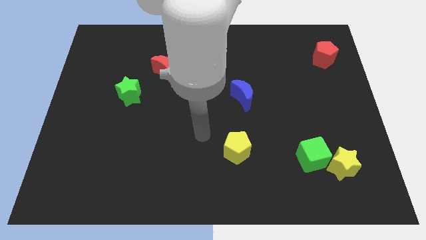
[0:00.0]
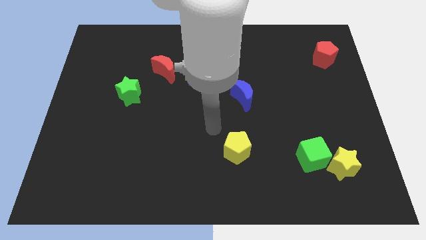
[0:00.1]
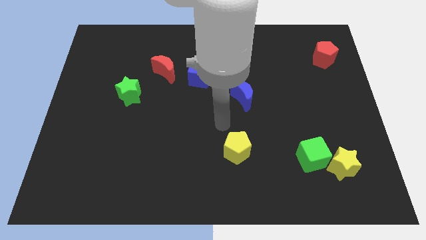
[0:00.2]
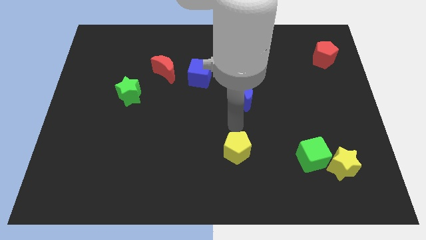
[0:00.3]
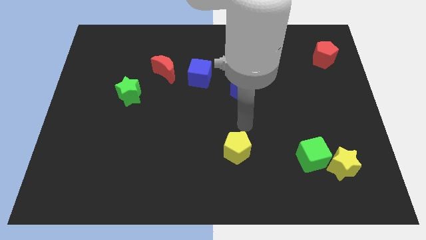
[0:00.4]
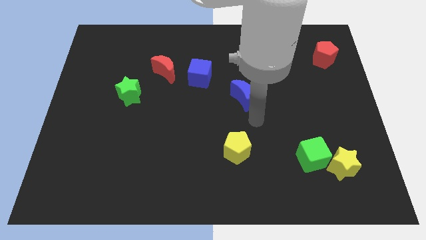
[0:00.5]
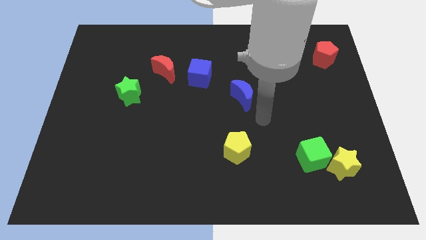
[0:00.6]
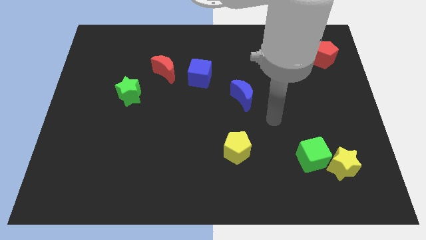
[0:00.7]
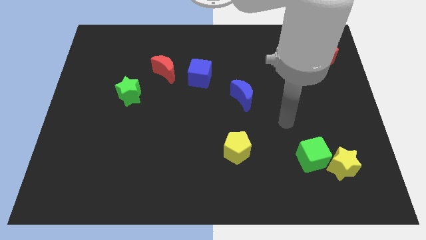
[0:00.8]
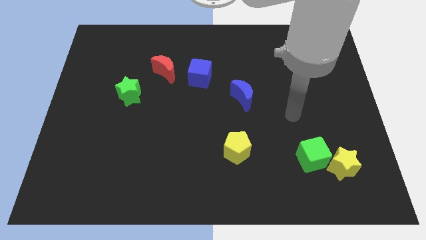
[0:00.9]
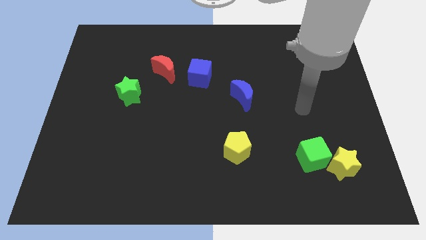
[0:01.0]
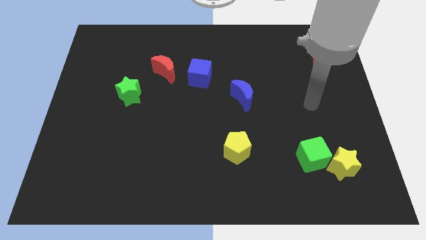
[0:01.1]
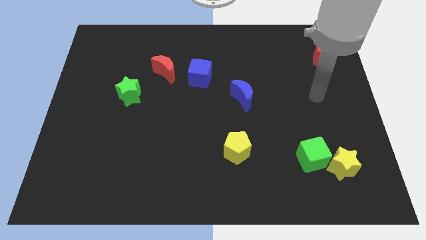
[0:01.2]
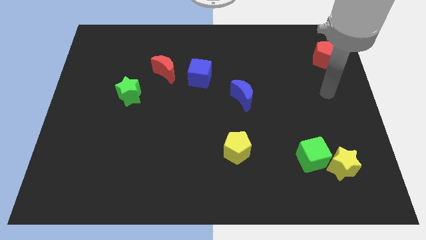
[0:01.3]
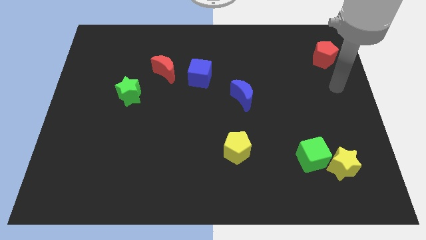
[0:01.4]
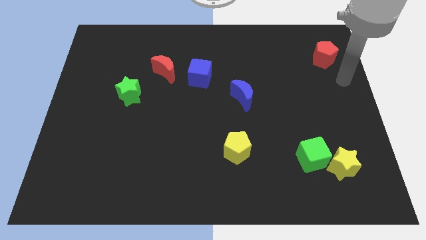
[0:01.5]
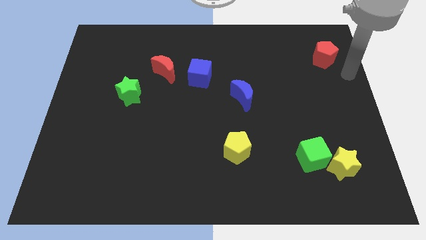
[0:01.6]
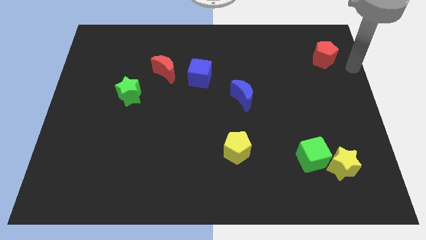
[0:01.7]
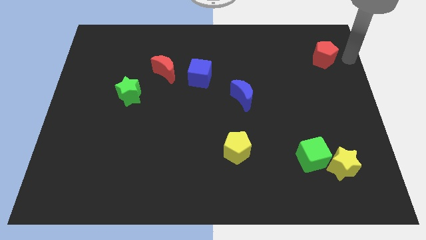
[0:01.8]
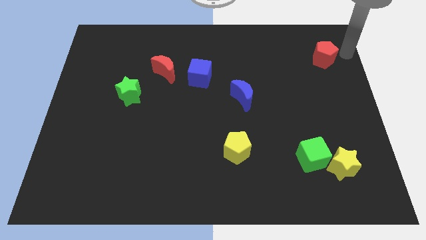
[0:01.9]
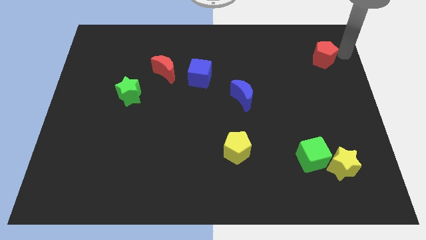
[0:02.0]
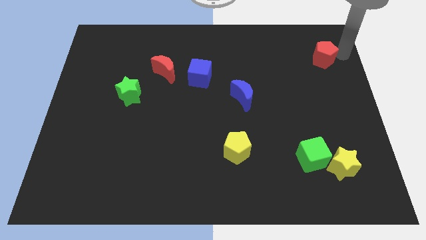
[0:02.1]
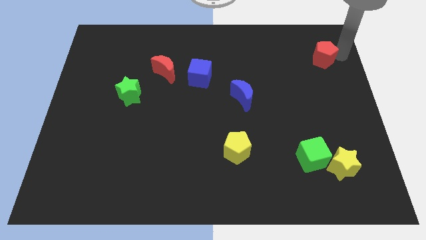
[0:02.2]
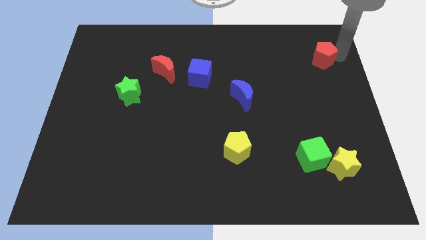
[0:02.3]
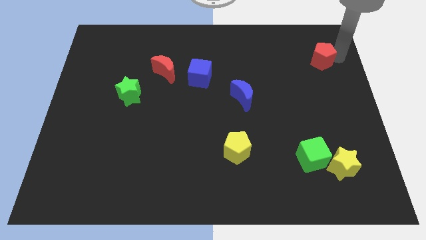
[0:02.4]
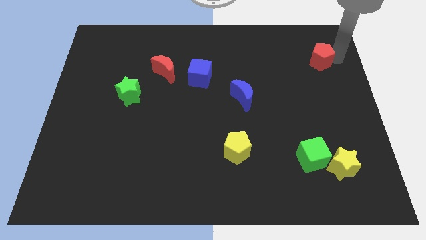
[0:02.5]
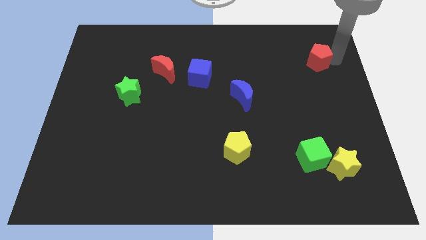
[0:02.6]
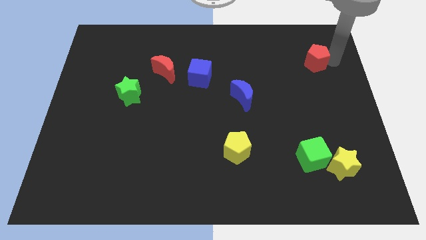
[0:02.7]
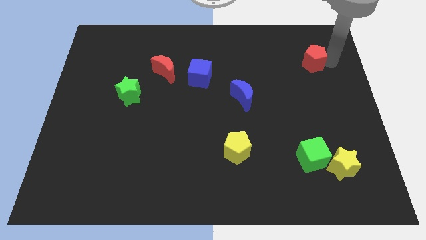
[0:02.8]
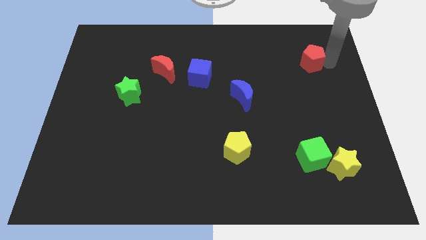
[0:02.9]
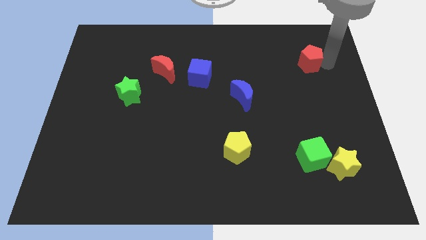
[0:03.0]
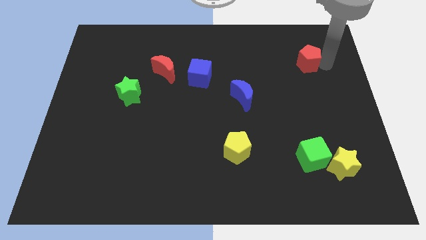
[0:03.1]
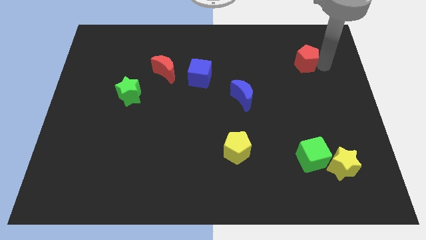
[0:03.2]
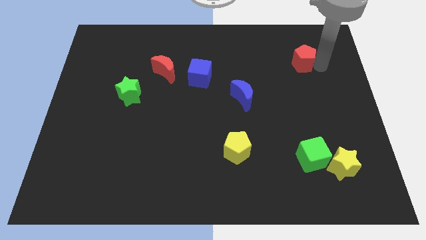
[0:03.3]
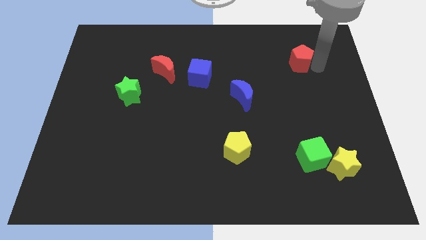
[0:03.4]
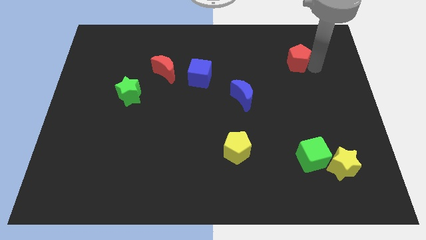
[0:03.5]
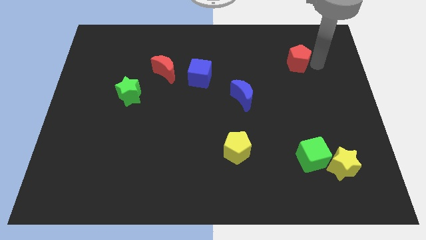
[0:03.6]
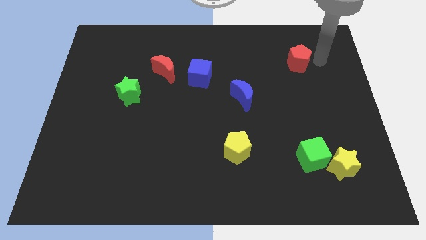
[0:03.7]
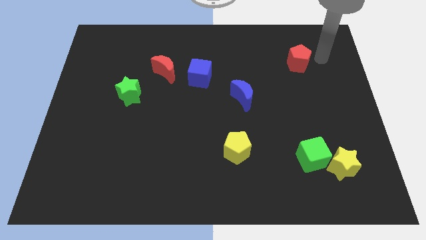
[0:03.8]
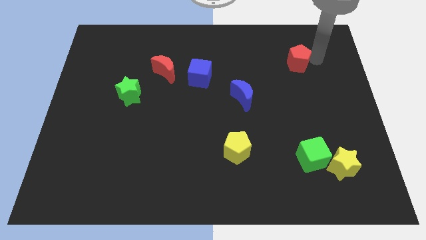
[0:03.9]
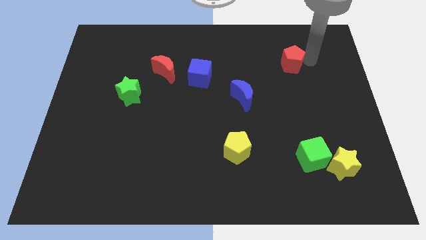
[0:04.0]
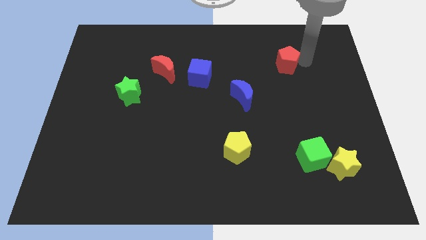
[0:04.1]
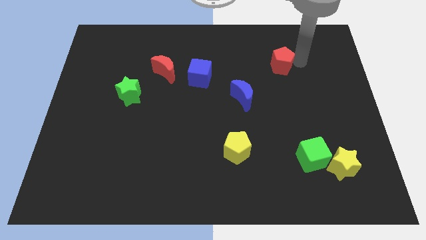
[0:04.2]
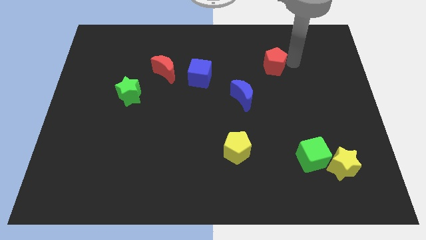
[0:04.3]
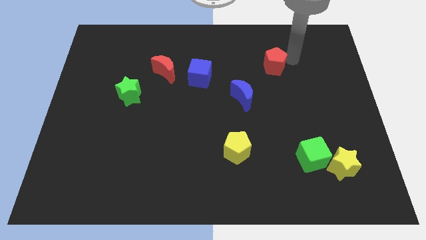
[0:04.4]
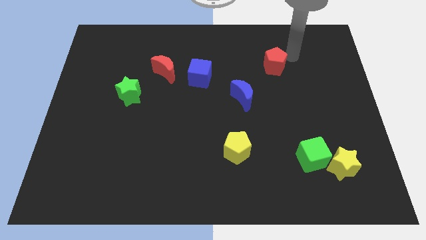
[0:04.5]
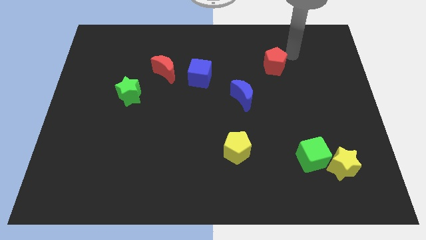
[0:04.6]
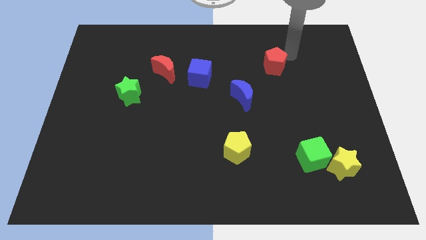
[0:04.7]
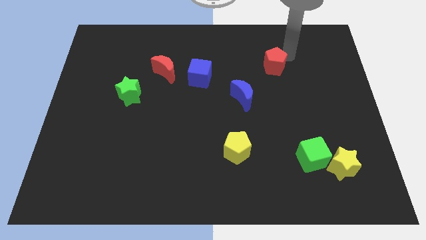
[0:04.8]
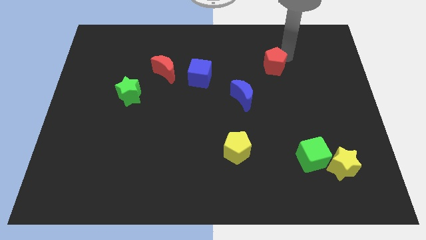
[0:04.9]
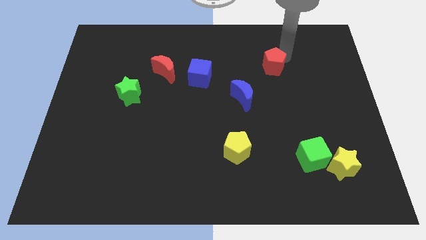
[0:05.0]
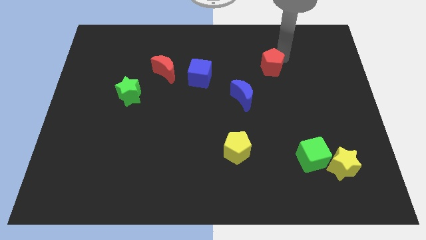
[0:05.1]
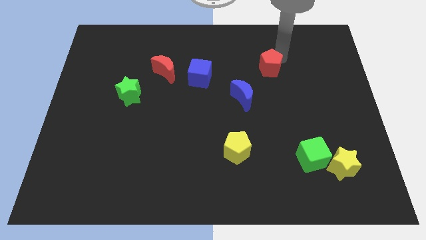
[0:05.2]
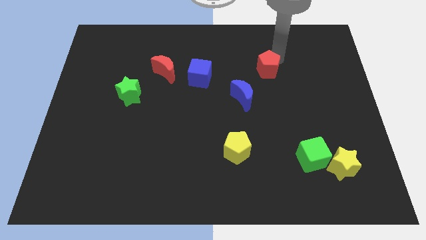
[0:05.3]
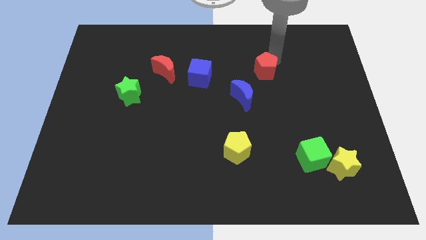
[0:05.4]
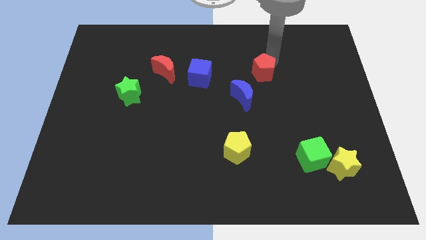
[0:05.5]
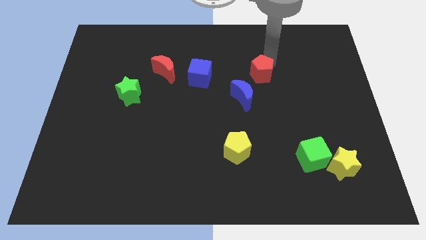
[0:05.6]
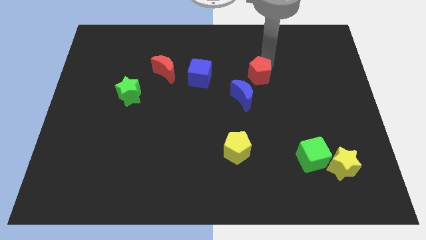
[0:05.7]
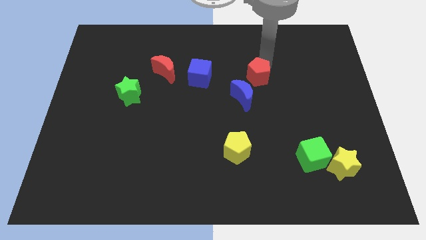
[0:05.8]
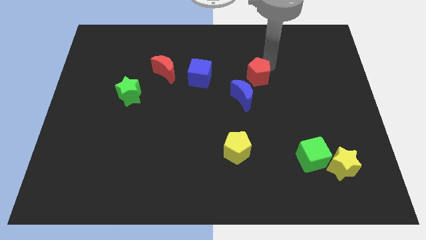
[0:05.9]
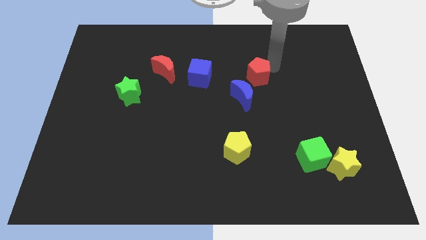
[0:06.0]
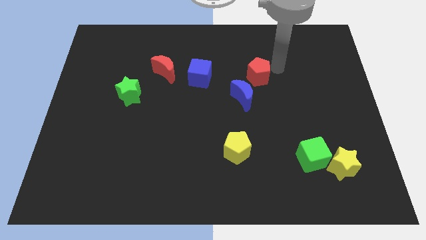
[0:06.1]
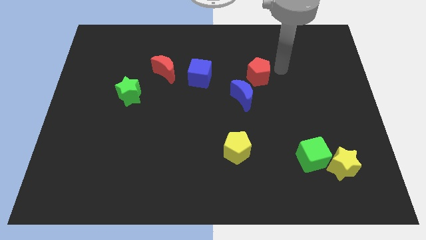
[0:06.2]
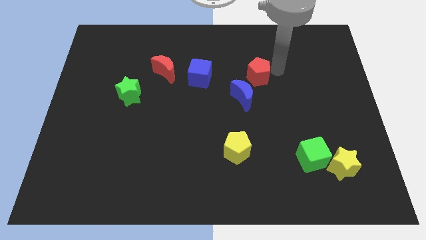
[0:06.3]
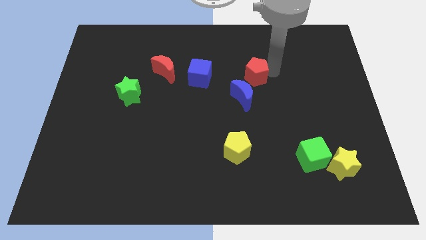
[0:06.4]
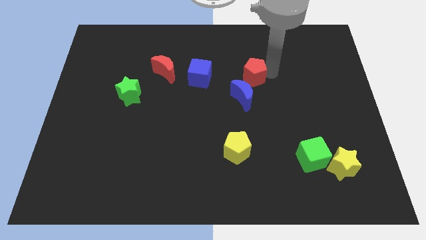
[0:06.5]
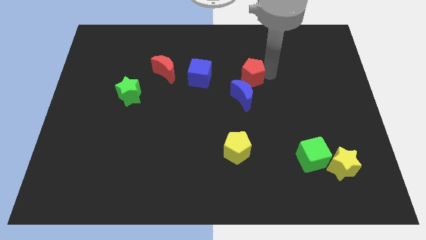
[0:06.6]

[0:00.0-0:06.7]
slide the red pentagon to the middle of the board
